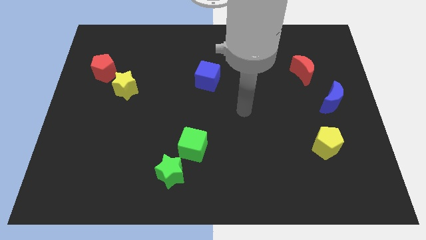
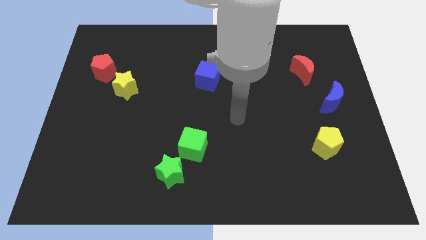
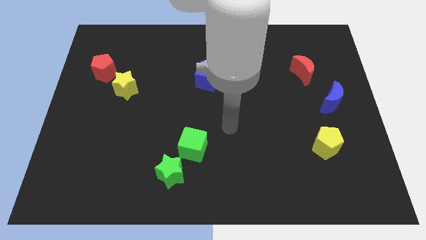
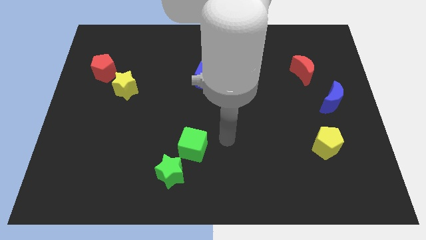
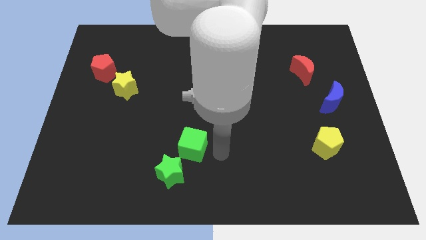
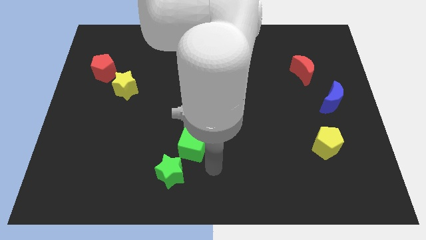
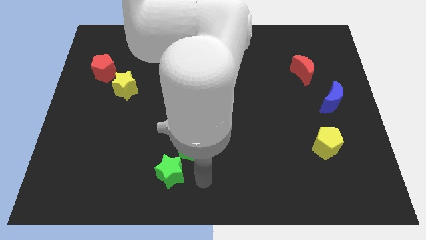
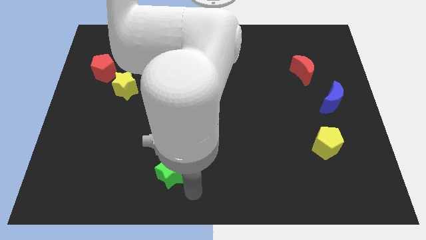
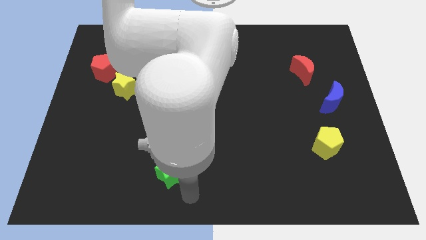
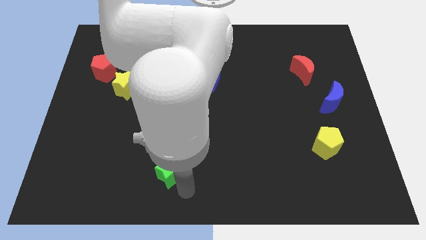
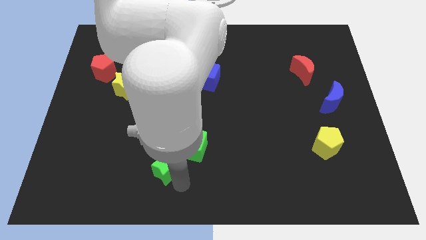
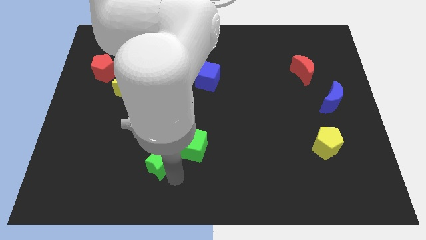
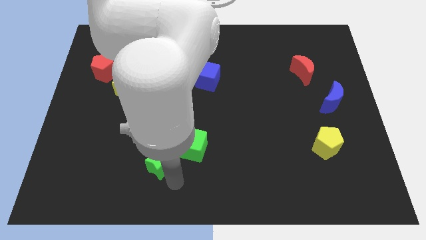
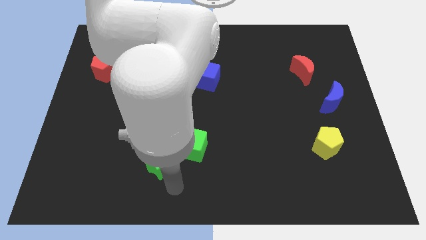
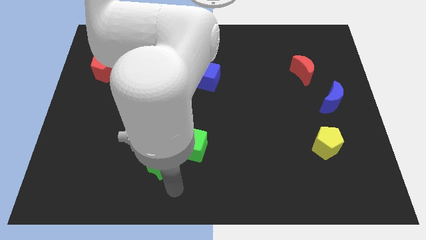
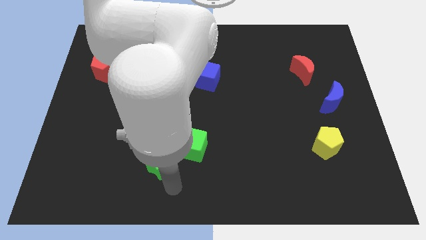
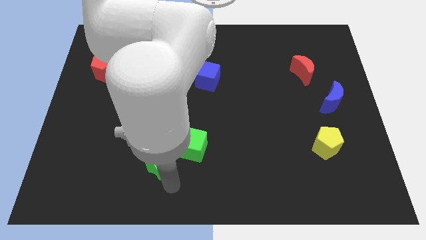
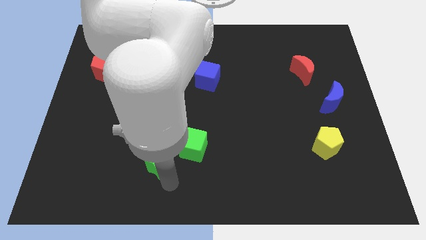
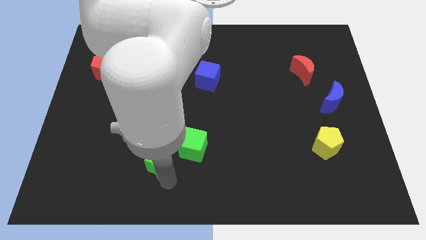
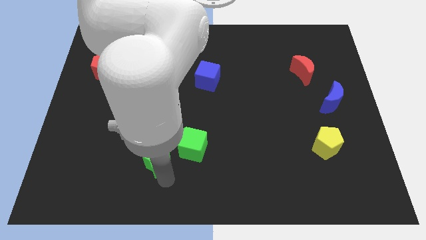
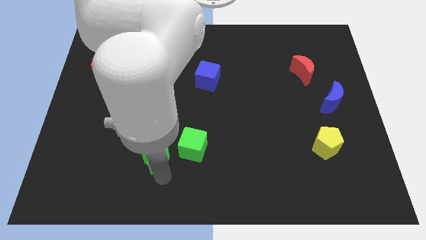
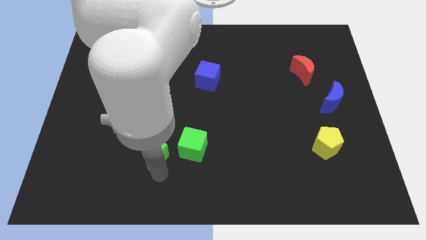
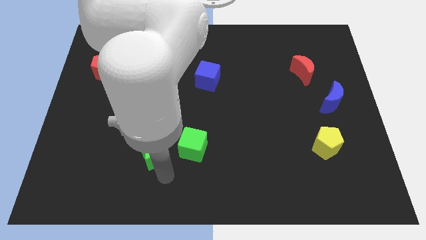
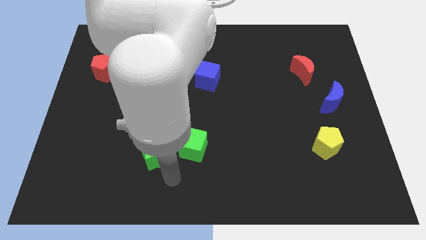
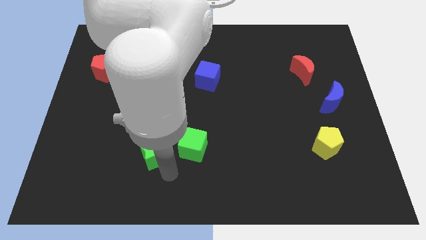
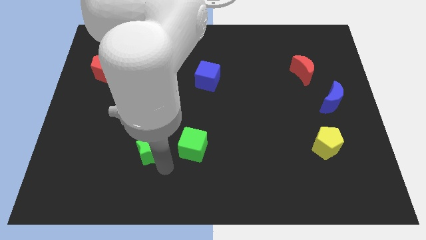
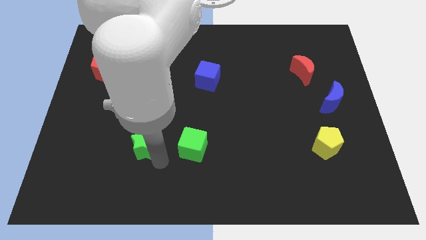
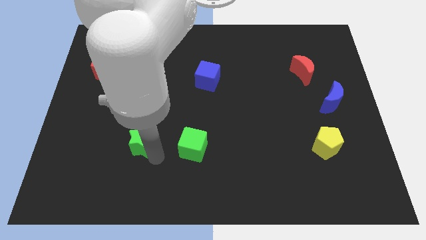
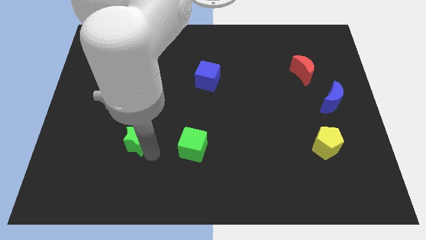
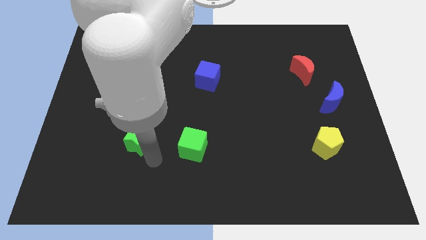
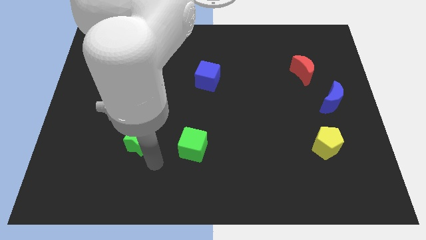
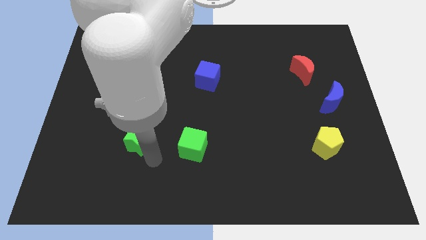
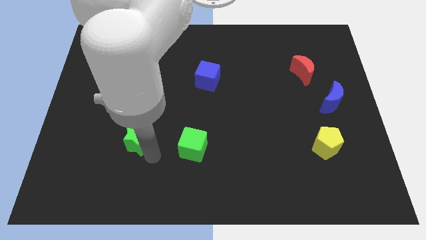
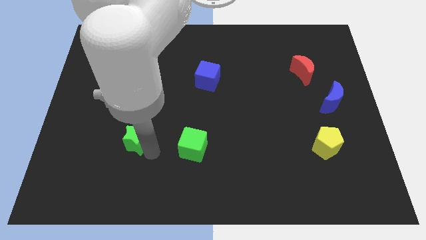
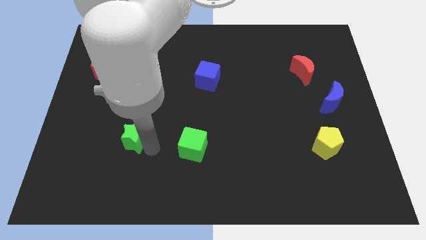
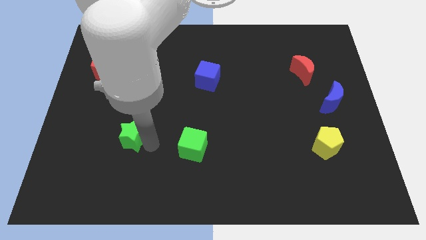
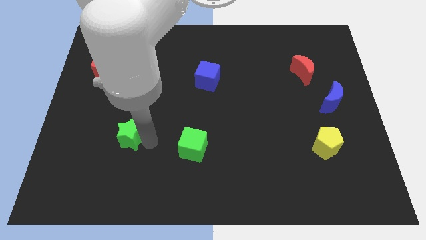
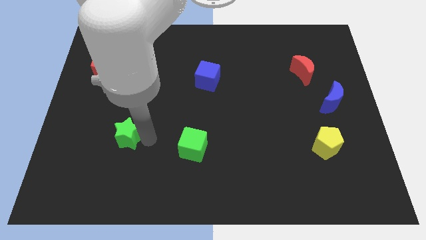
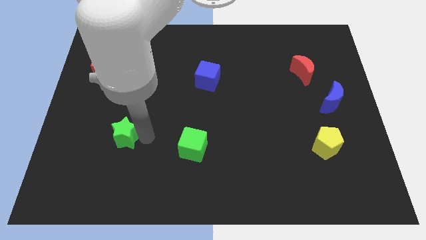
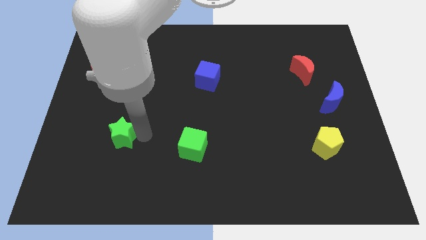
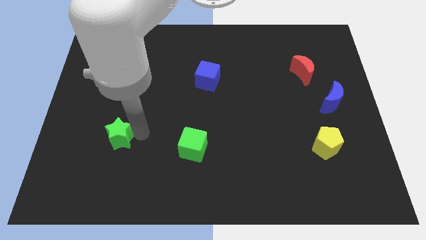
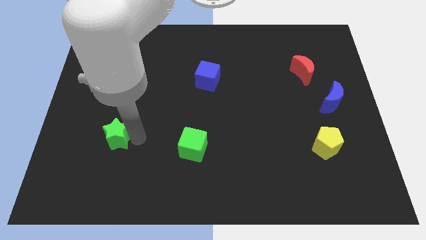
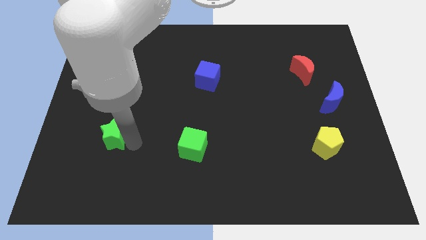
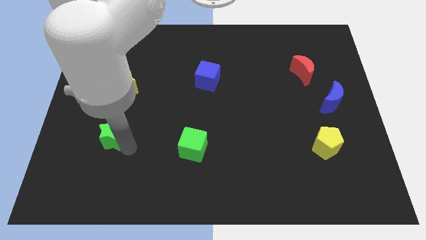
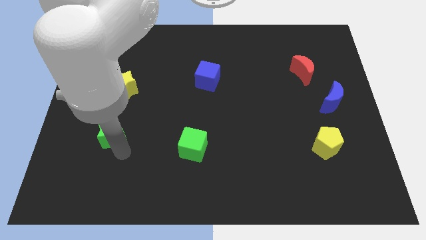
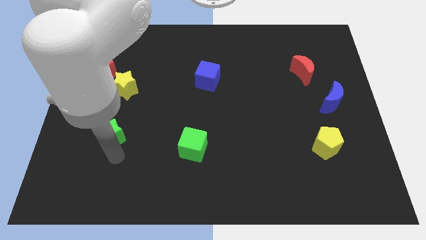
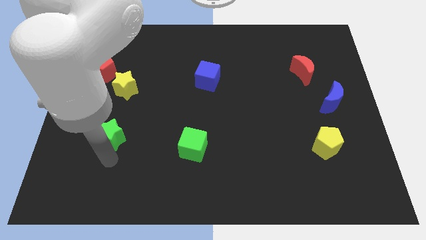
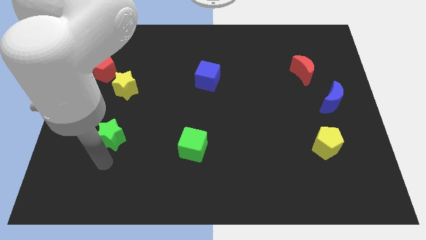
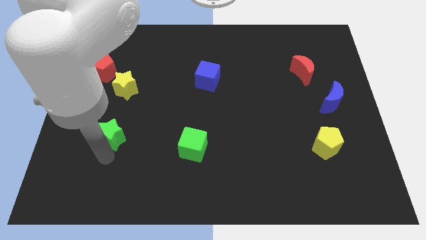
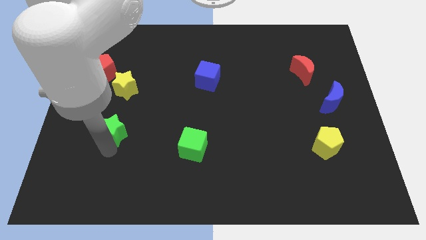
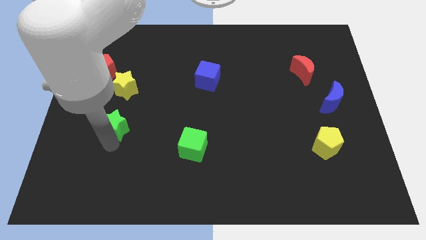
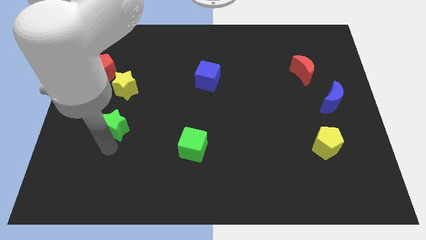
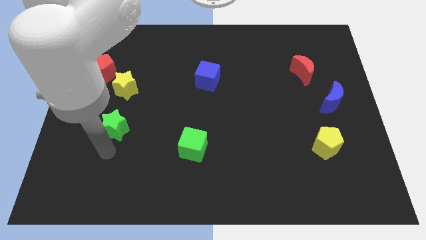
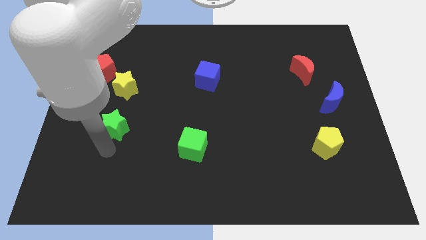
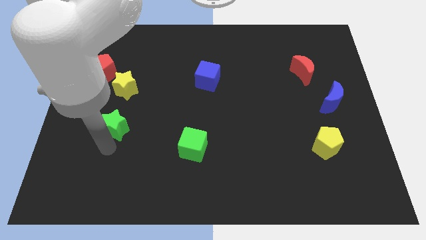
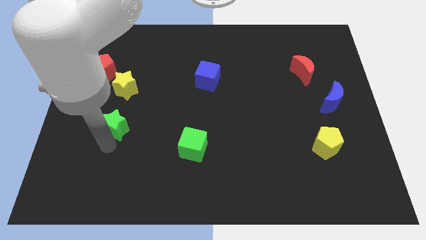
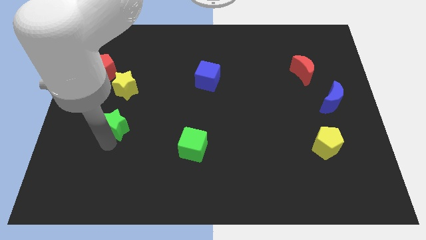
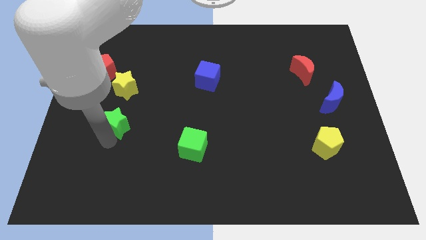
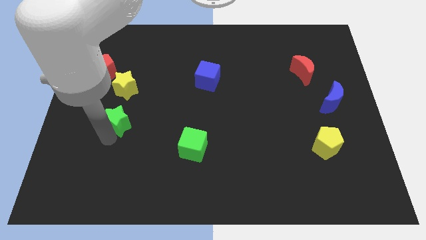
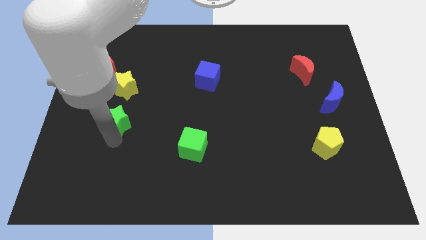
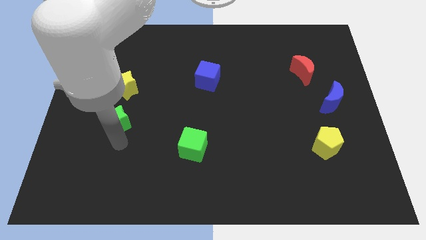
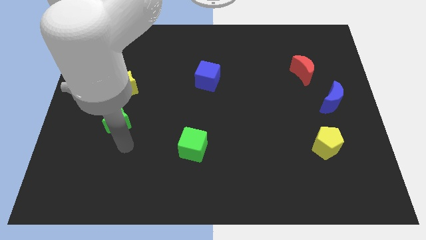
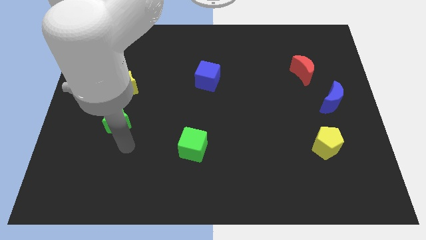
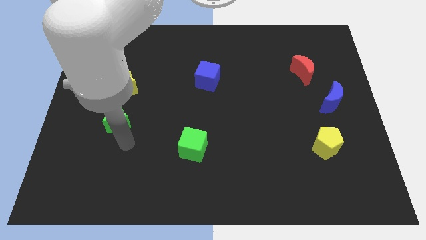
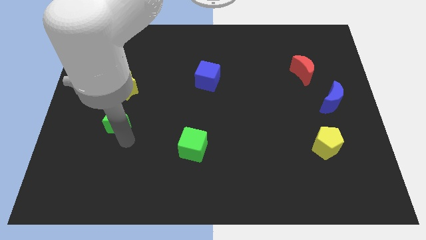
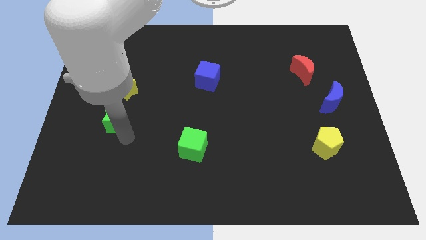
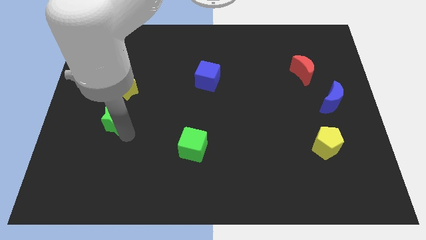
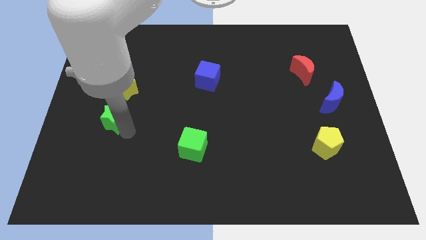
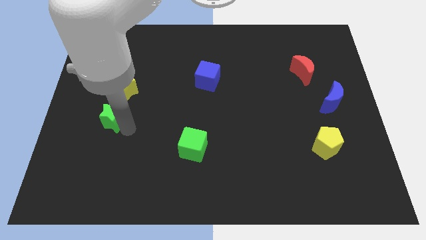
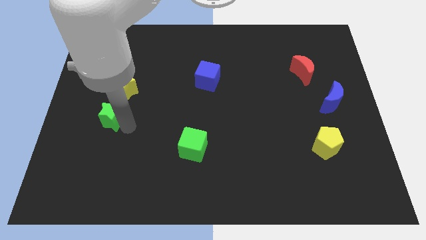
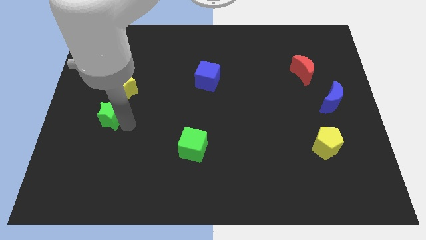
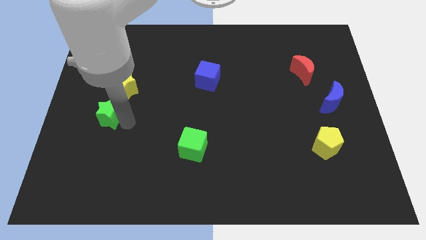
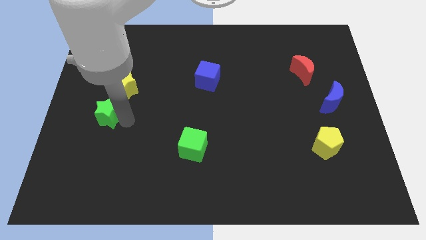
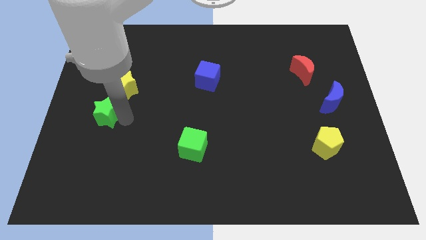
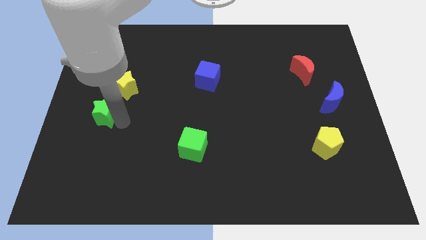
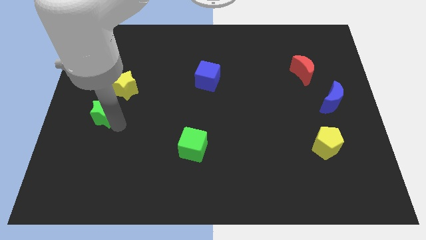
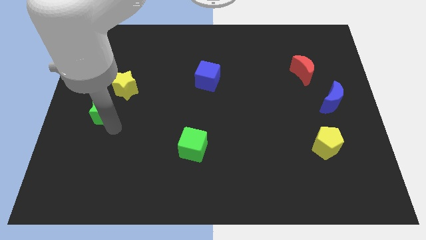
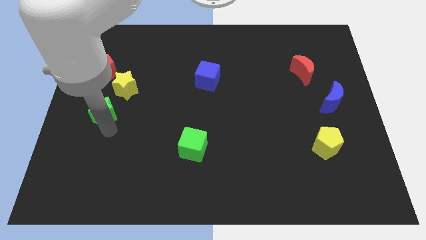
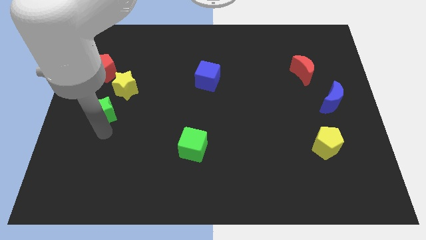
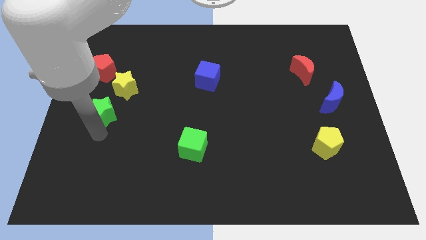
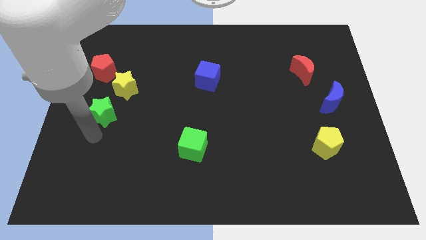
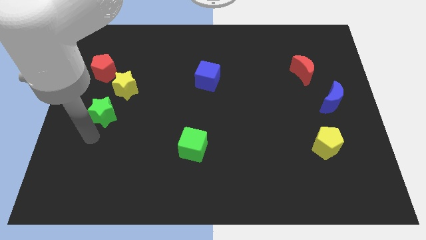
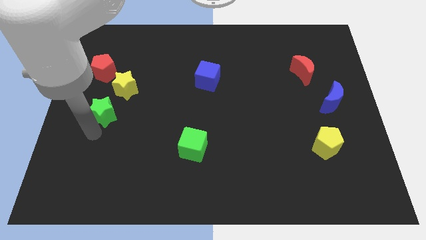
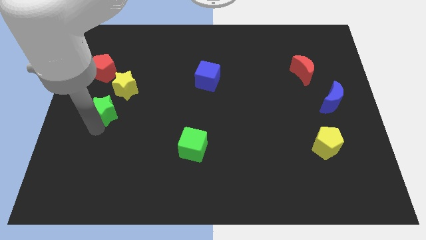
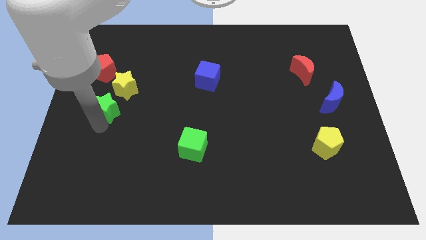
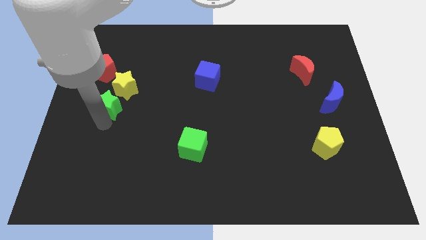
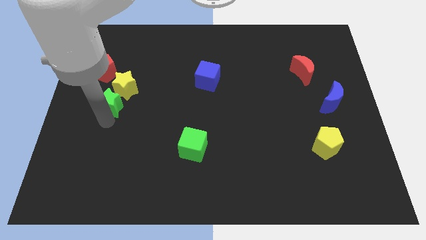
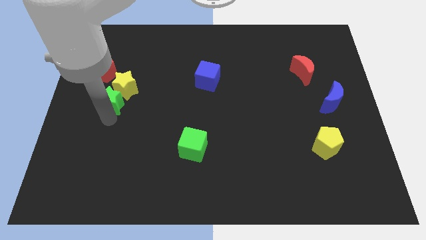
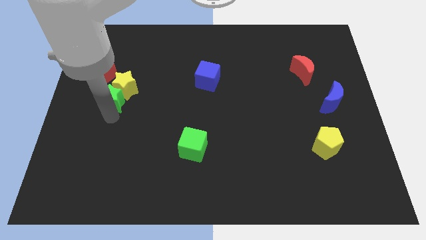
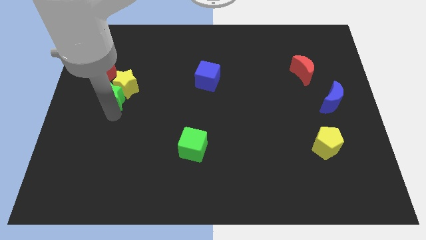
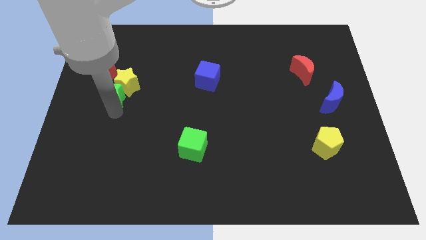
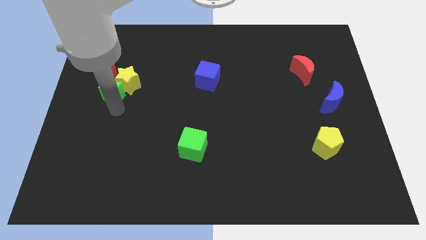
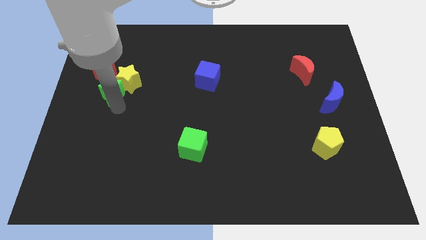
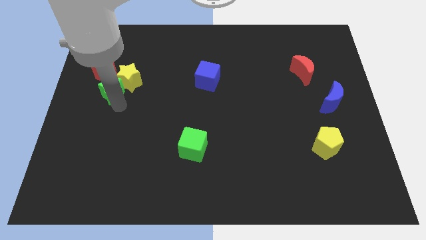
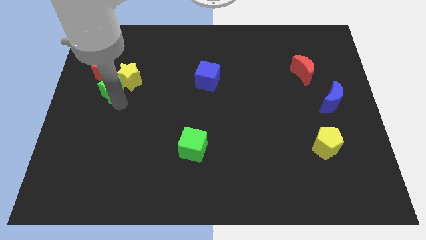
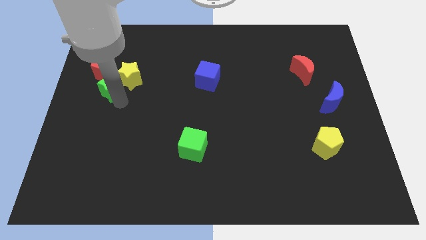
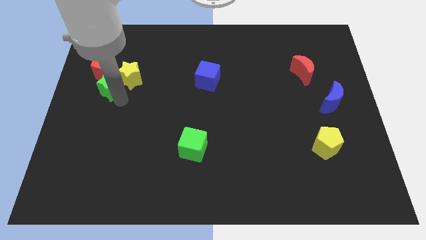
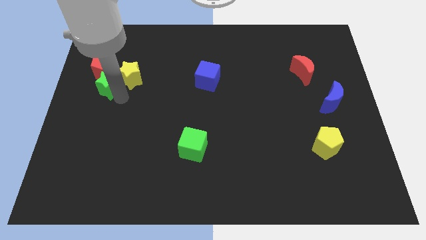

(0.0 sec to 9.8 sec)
push the green star next to the red pentagon
